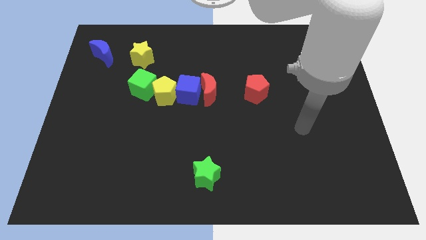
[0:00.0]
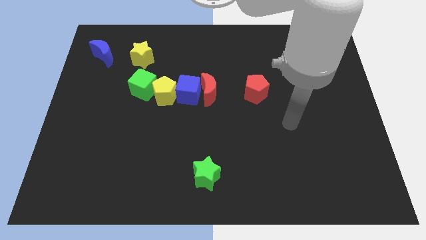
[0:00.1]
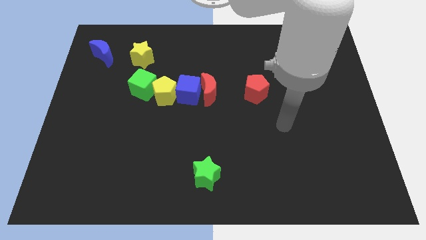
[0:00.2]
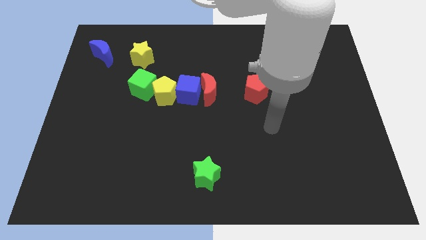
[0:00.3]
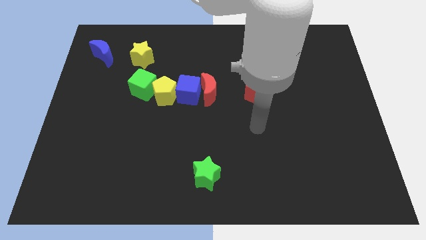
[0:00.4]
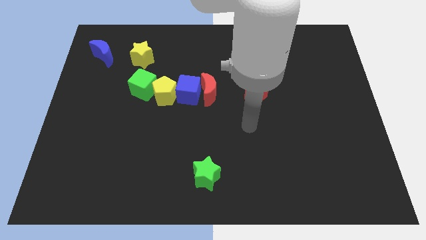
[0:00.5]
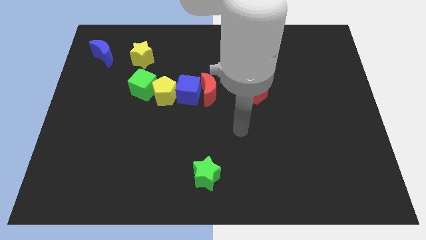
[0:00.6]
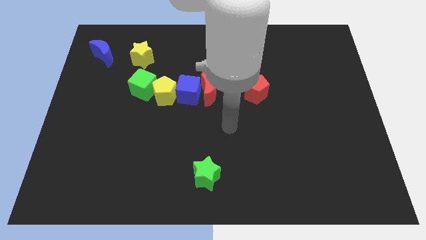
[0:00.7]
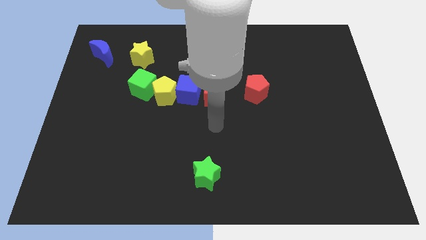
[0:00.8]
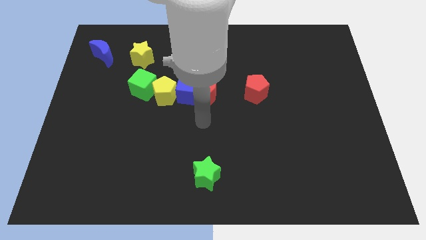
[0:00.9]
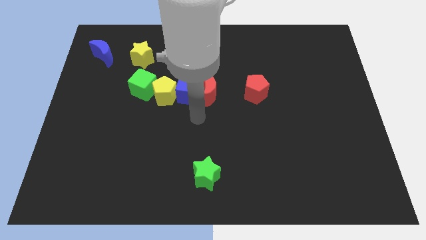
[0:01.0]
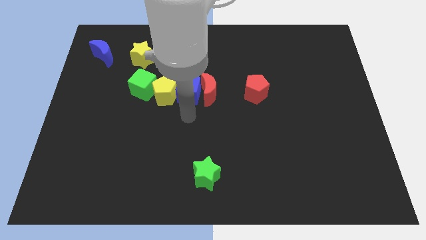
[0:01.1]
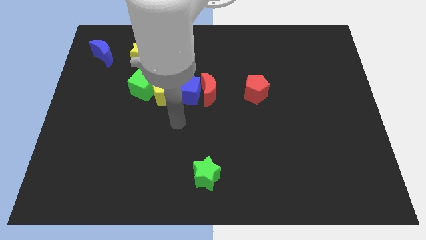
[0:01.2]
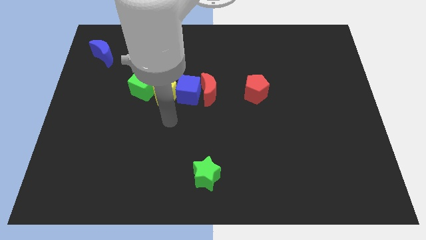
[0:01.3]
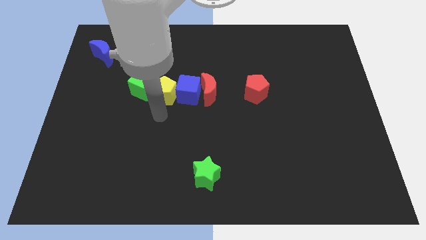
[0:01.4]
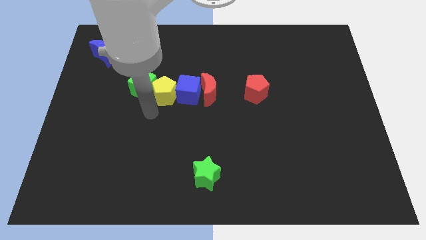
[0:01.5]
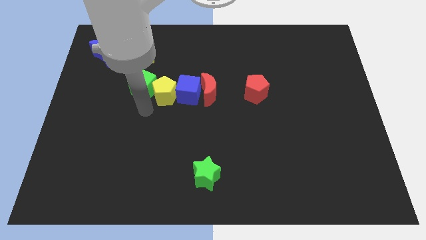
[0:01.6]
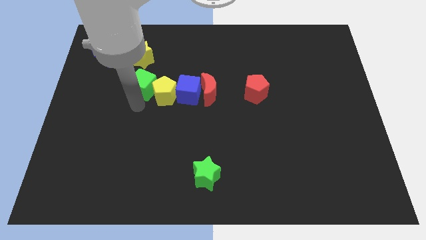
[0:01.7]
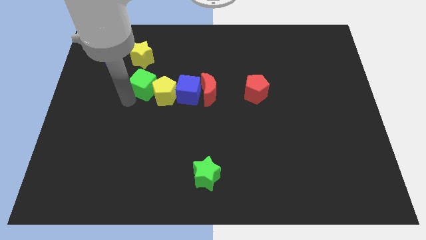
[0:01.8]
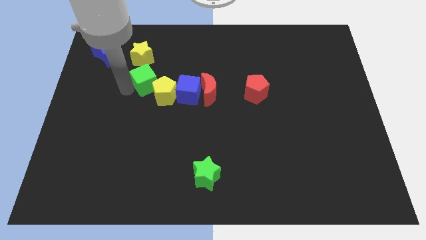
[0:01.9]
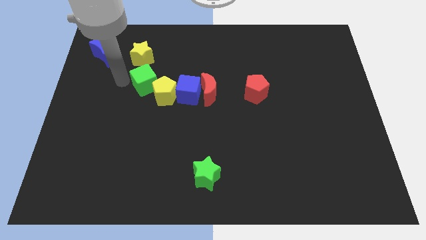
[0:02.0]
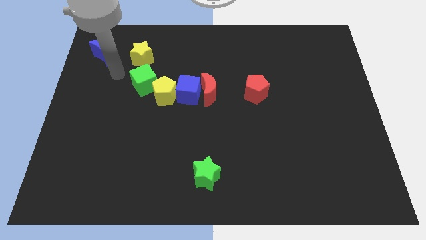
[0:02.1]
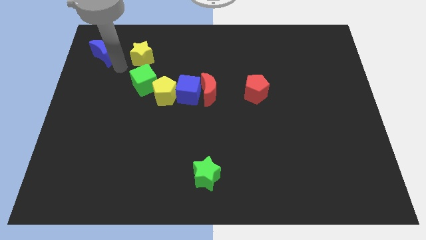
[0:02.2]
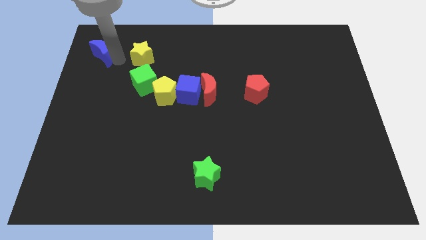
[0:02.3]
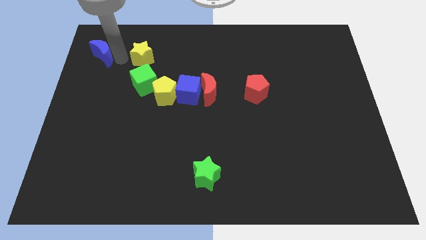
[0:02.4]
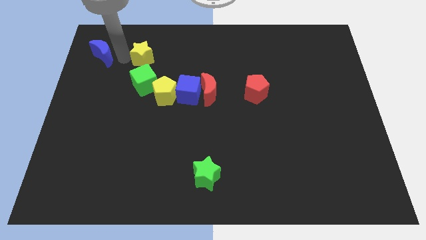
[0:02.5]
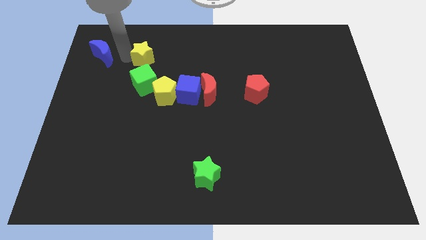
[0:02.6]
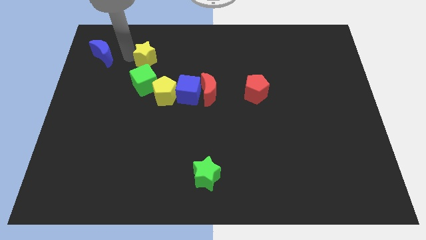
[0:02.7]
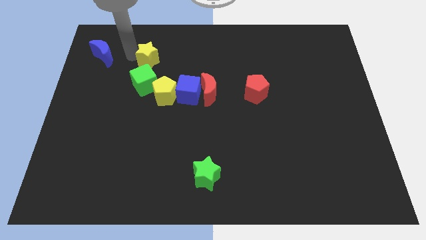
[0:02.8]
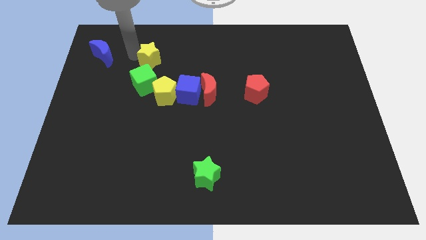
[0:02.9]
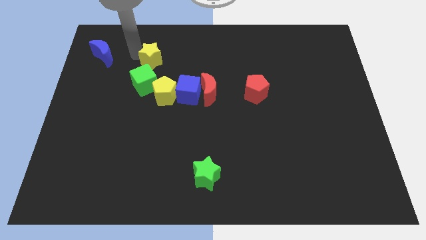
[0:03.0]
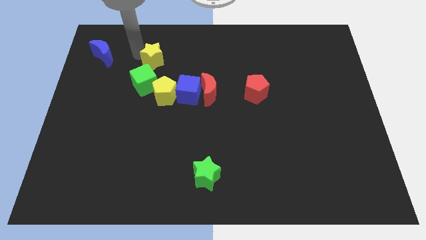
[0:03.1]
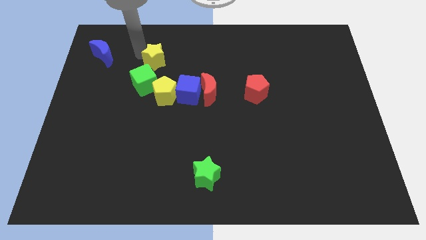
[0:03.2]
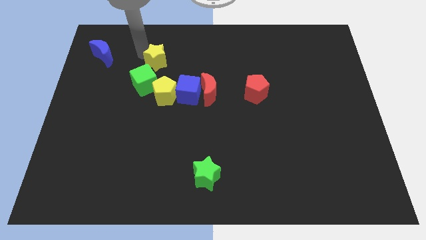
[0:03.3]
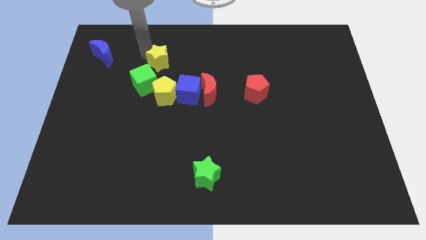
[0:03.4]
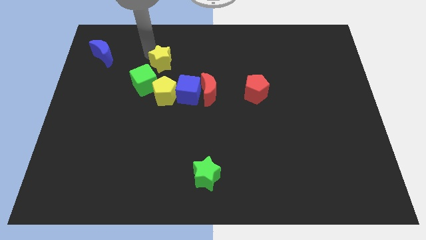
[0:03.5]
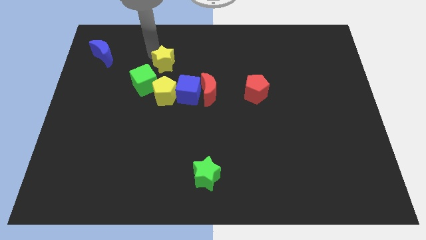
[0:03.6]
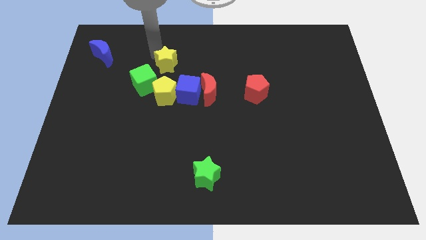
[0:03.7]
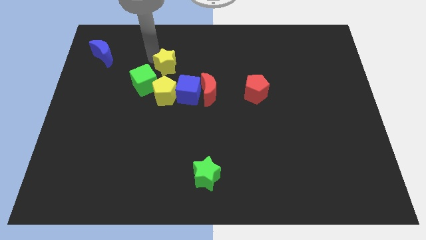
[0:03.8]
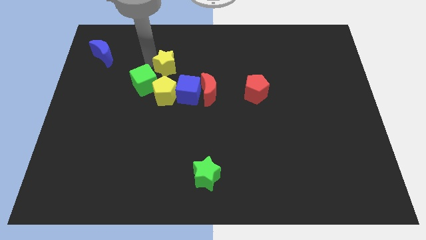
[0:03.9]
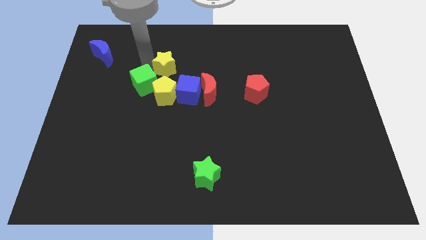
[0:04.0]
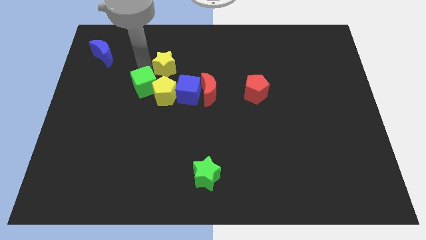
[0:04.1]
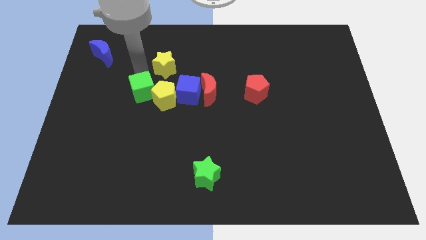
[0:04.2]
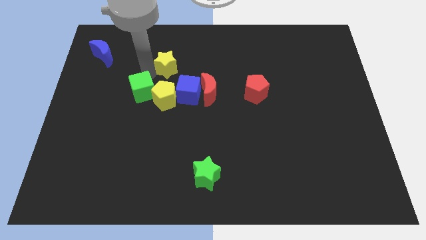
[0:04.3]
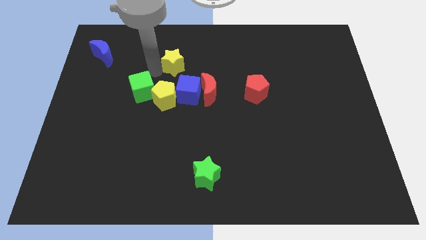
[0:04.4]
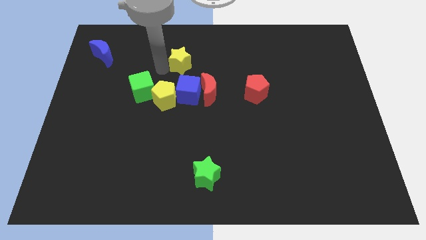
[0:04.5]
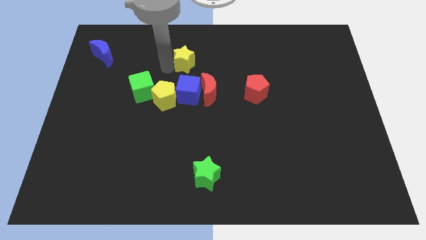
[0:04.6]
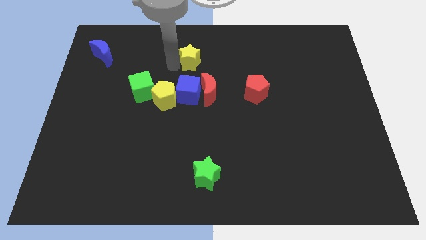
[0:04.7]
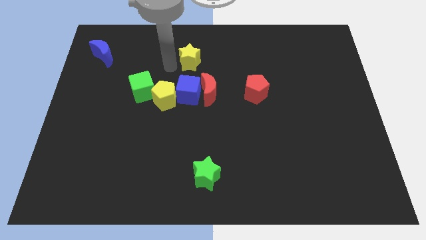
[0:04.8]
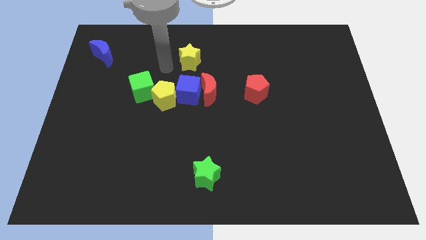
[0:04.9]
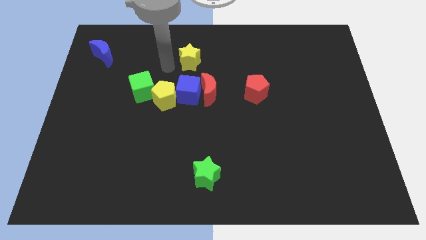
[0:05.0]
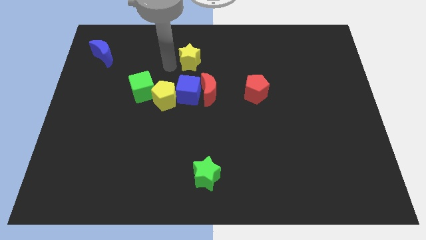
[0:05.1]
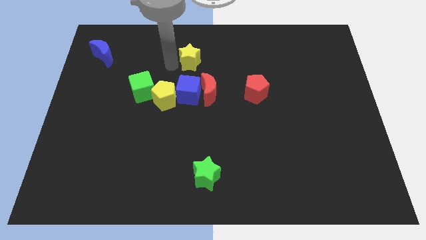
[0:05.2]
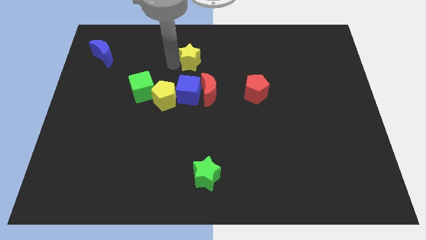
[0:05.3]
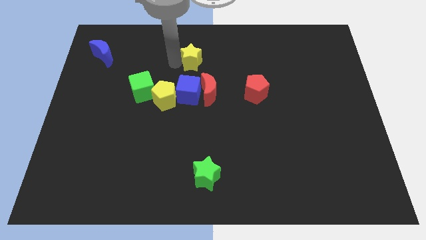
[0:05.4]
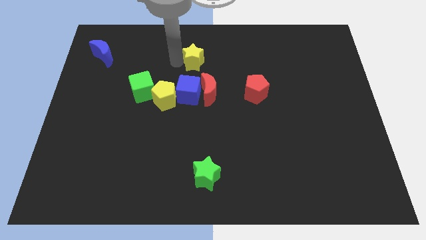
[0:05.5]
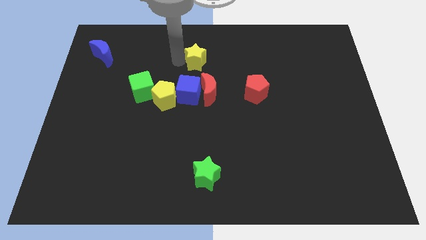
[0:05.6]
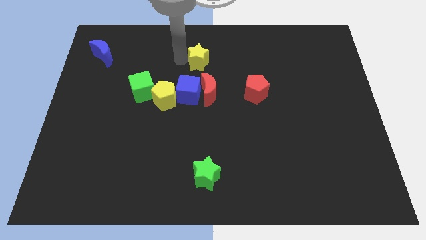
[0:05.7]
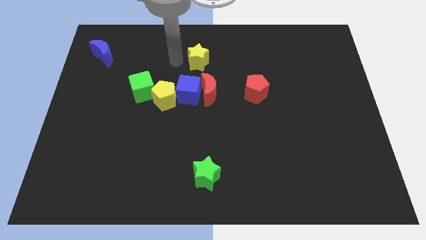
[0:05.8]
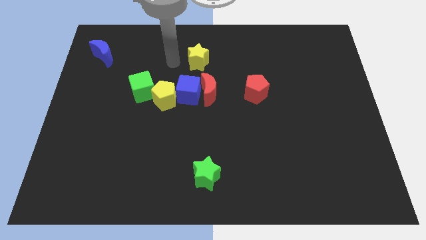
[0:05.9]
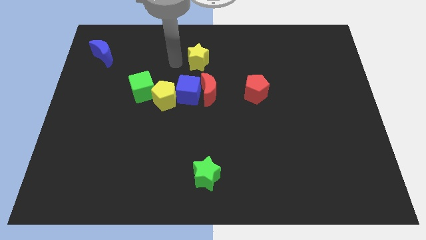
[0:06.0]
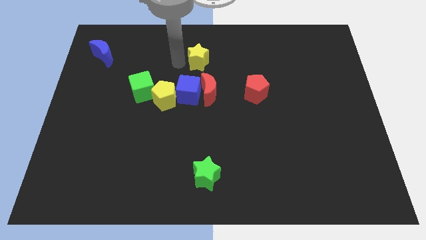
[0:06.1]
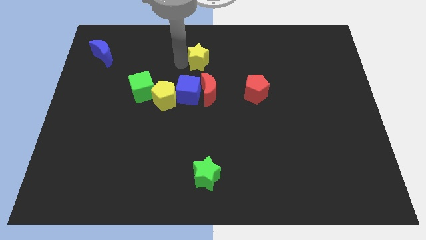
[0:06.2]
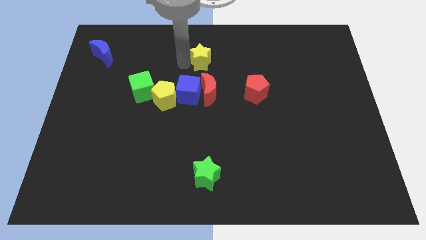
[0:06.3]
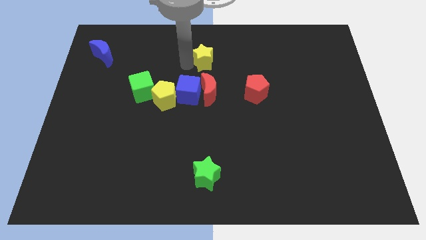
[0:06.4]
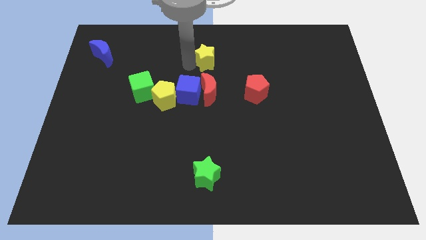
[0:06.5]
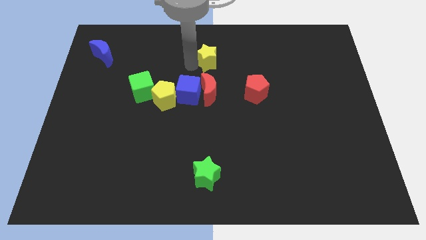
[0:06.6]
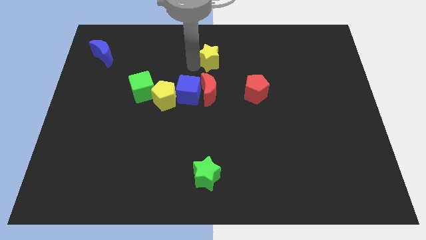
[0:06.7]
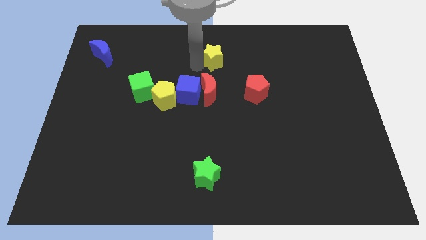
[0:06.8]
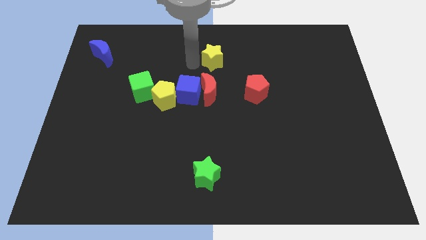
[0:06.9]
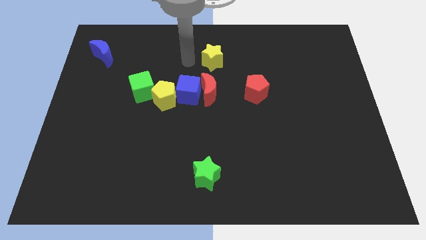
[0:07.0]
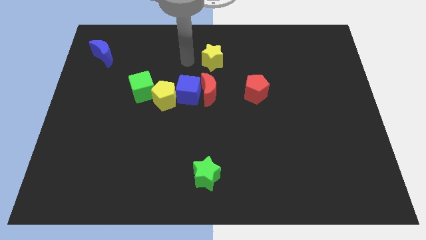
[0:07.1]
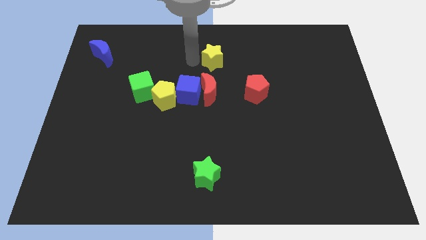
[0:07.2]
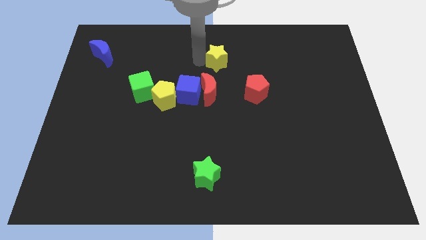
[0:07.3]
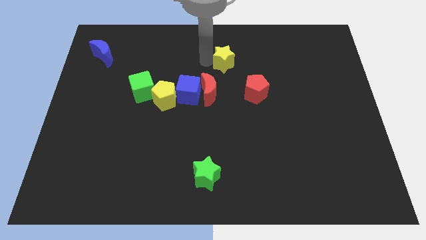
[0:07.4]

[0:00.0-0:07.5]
push the yellow star to the right

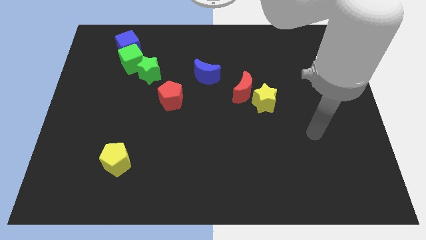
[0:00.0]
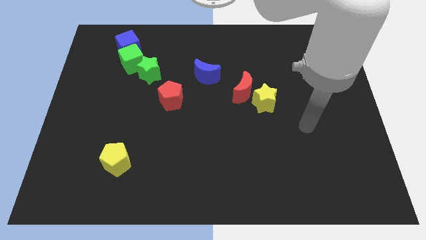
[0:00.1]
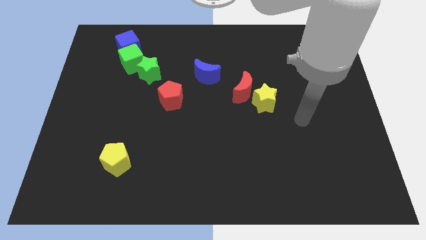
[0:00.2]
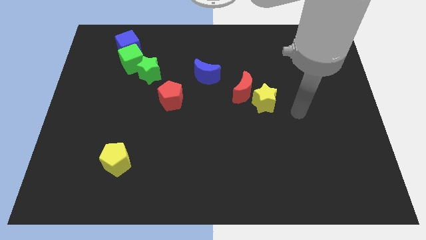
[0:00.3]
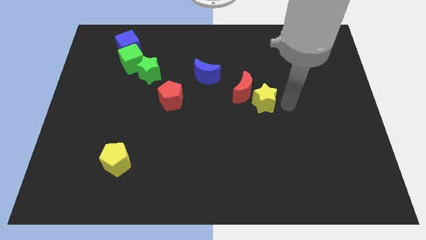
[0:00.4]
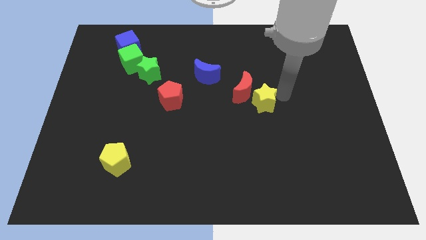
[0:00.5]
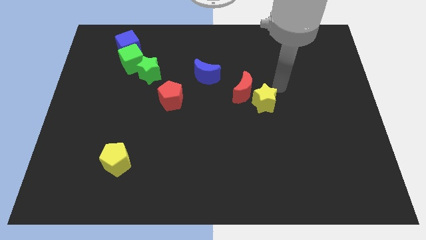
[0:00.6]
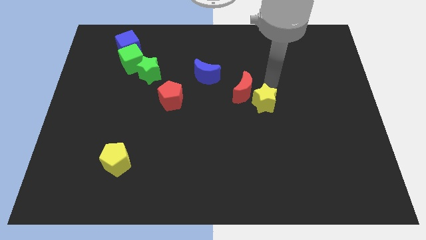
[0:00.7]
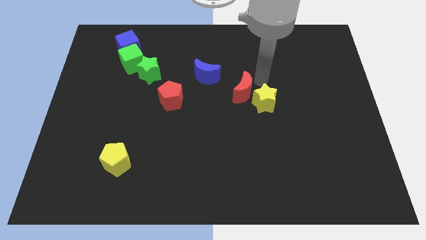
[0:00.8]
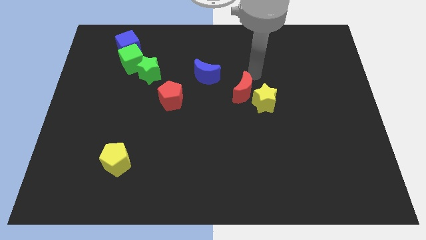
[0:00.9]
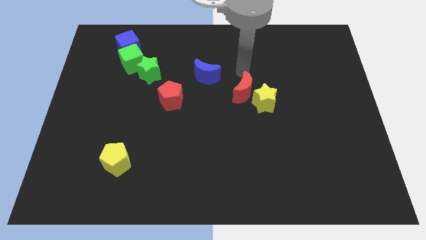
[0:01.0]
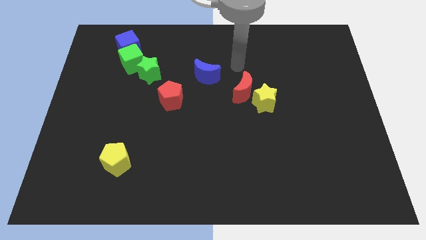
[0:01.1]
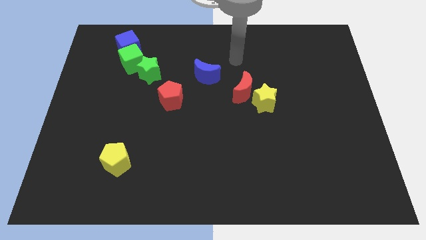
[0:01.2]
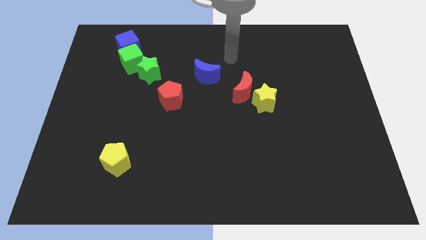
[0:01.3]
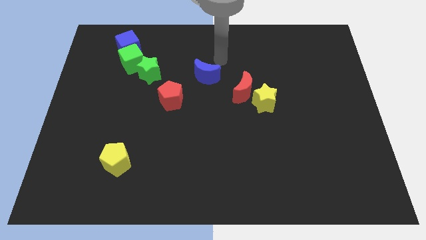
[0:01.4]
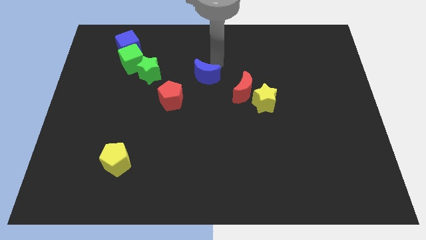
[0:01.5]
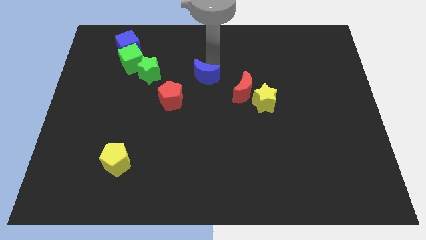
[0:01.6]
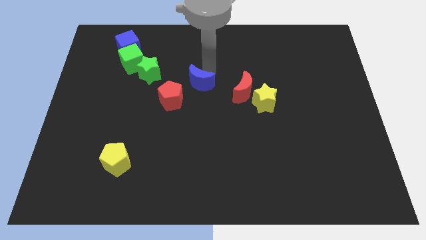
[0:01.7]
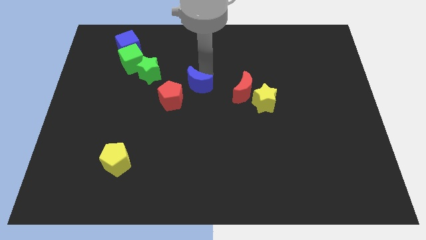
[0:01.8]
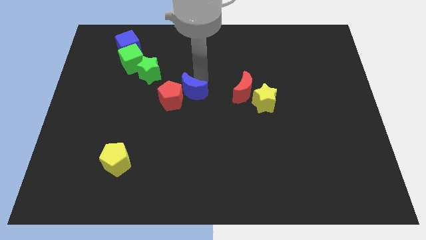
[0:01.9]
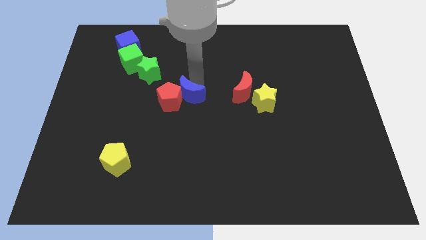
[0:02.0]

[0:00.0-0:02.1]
push the blue moon diagonally down and left a little
